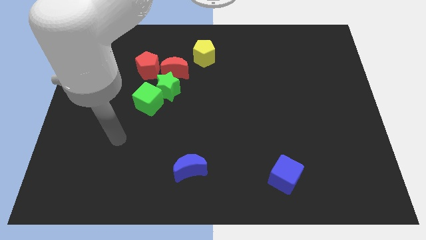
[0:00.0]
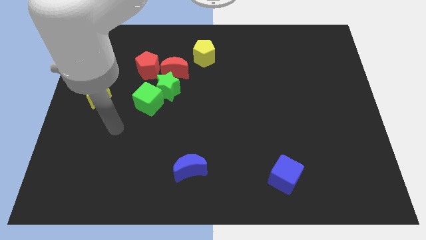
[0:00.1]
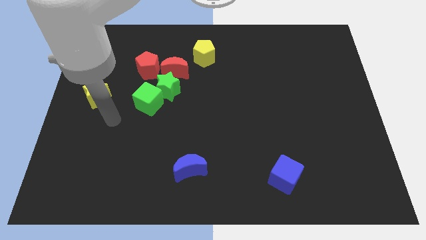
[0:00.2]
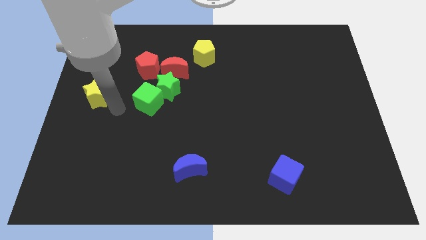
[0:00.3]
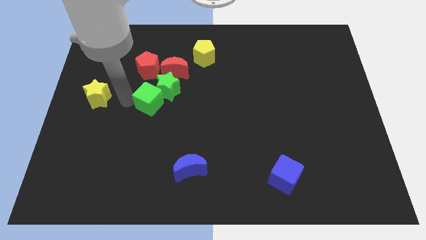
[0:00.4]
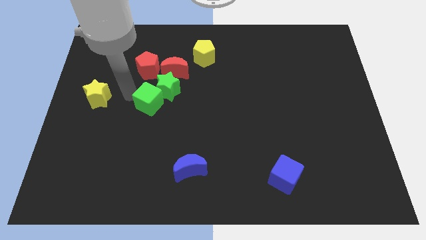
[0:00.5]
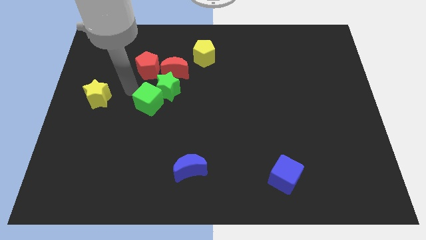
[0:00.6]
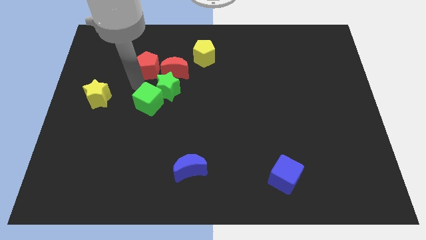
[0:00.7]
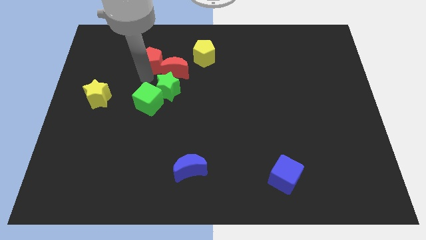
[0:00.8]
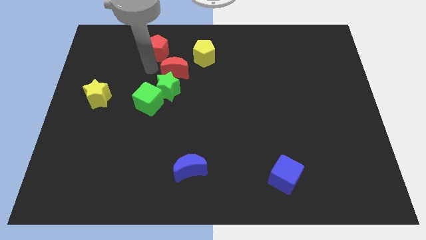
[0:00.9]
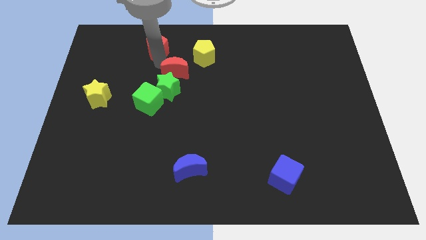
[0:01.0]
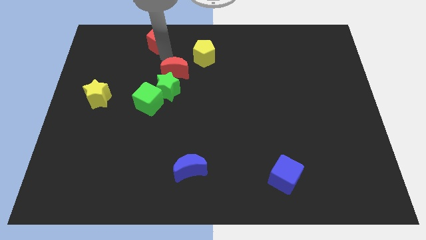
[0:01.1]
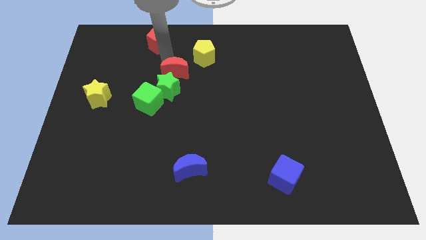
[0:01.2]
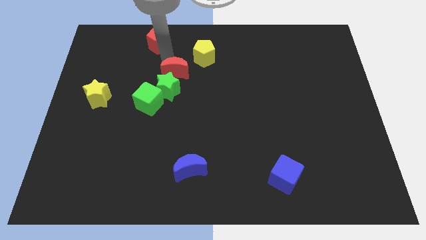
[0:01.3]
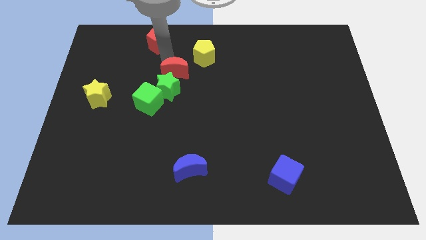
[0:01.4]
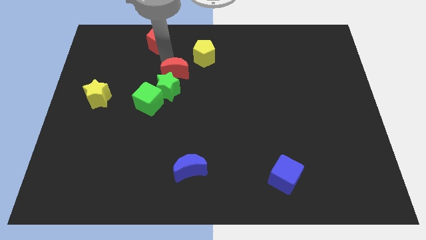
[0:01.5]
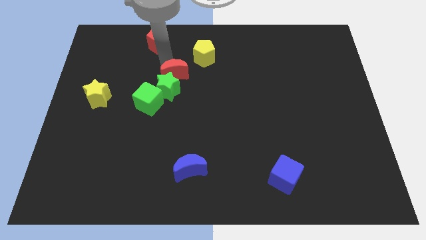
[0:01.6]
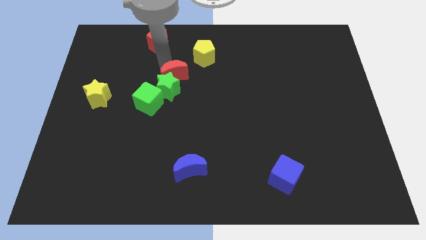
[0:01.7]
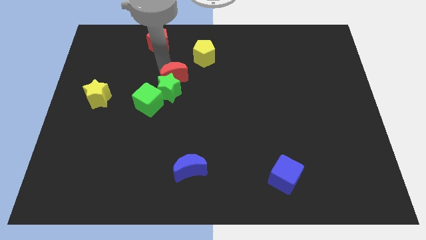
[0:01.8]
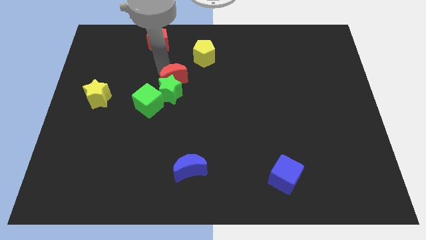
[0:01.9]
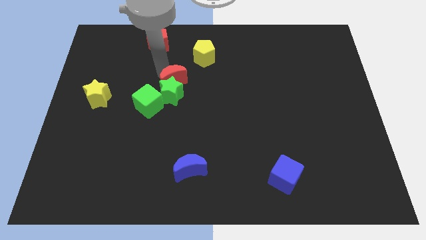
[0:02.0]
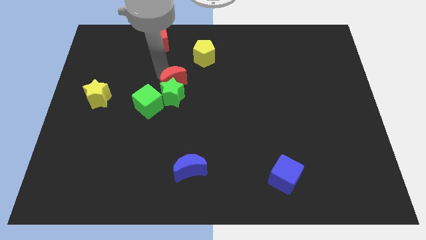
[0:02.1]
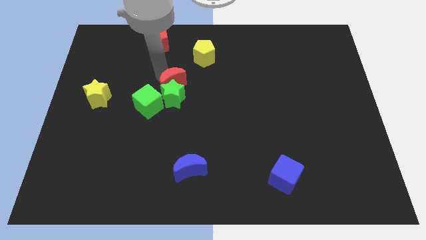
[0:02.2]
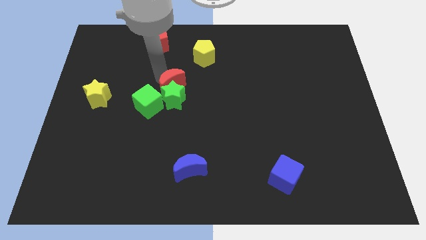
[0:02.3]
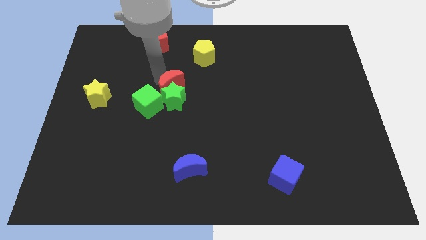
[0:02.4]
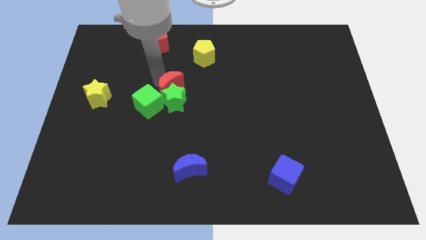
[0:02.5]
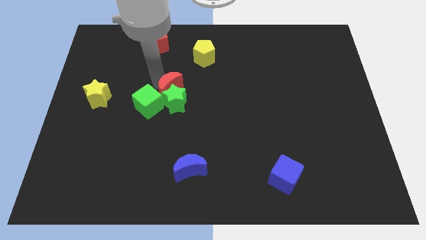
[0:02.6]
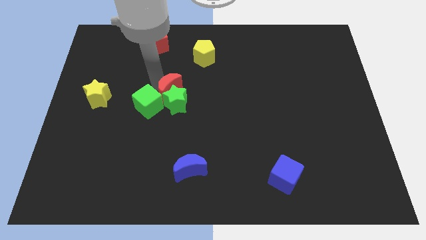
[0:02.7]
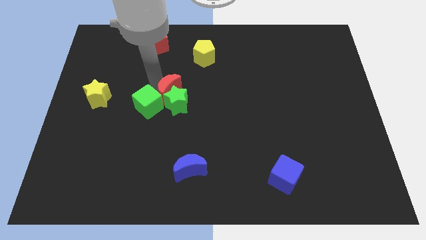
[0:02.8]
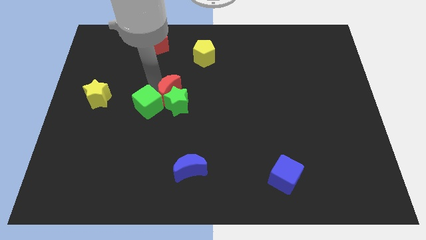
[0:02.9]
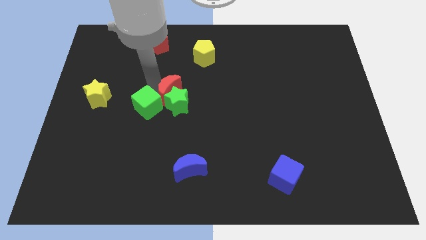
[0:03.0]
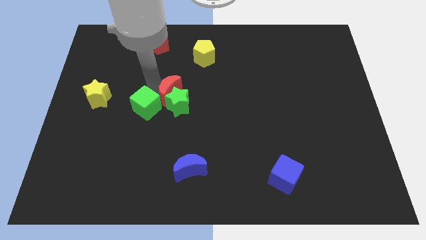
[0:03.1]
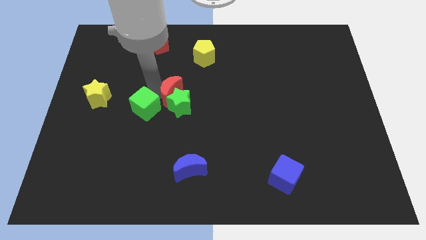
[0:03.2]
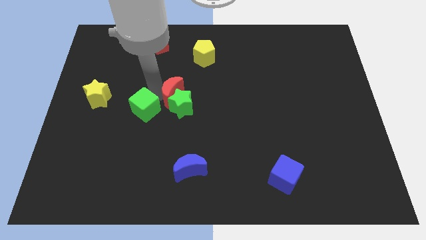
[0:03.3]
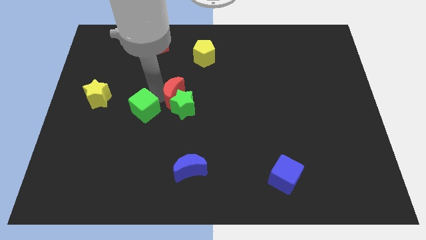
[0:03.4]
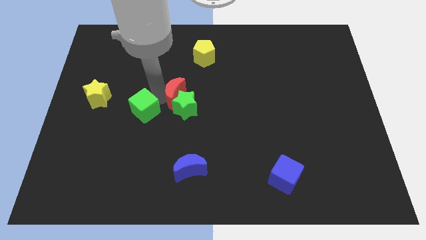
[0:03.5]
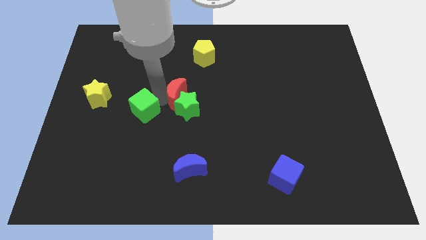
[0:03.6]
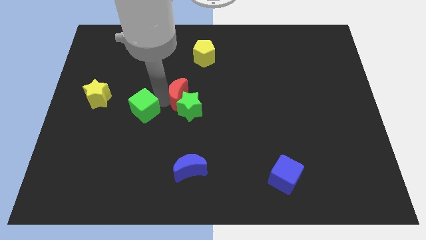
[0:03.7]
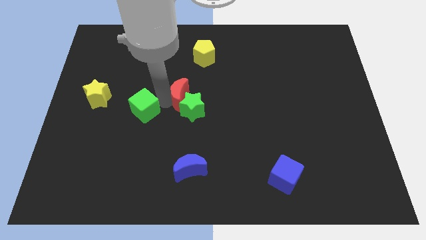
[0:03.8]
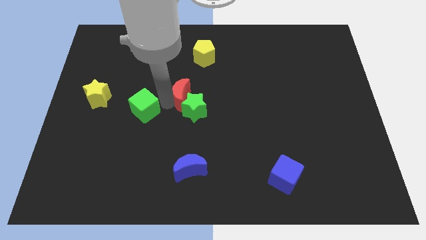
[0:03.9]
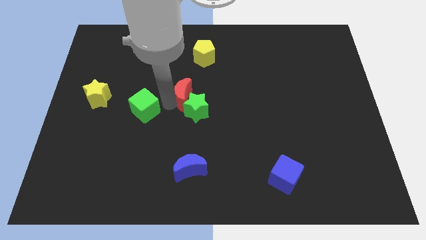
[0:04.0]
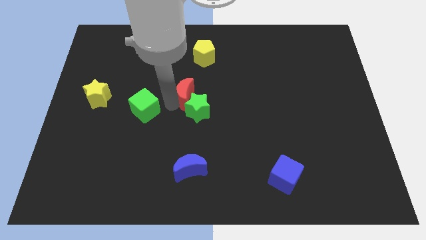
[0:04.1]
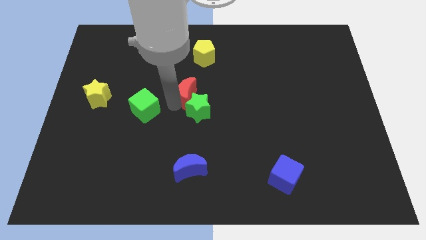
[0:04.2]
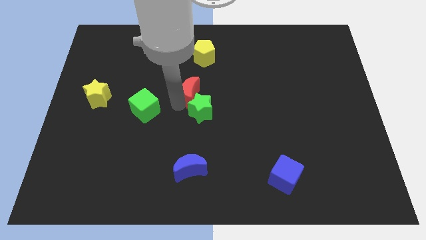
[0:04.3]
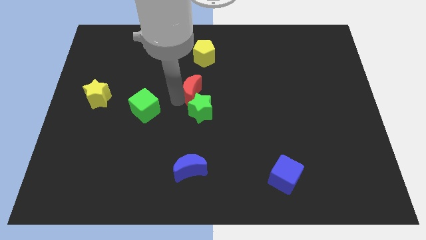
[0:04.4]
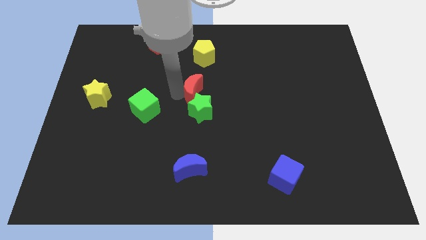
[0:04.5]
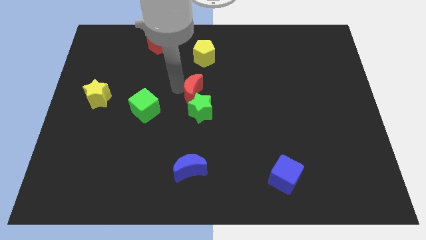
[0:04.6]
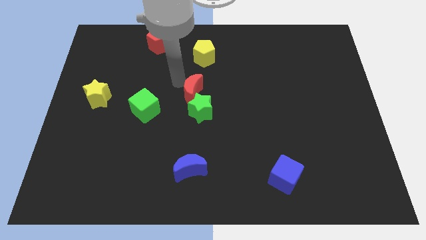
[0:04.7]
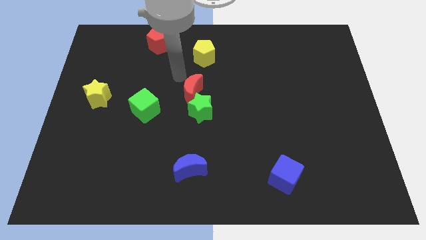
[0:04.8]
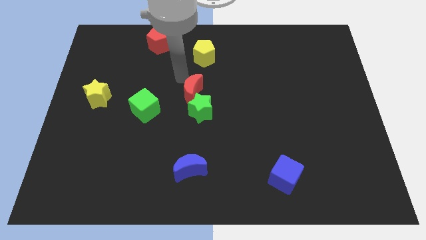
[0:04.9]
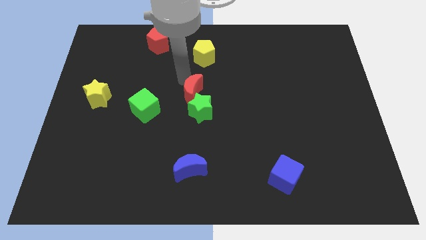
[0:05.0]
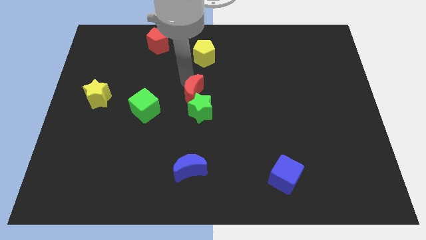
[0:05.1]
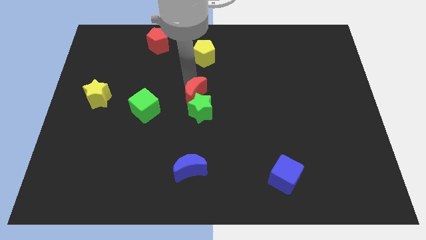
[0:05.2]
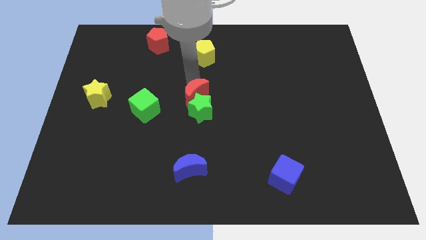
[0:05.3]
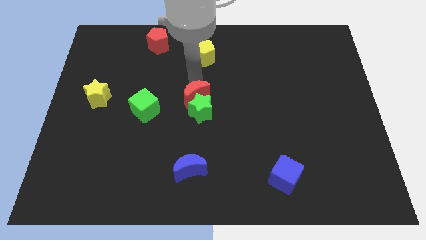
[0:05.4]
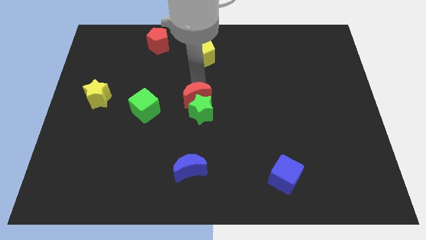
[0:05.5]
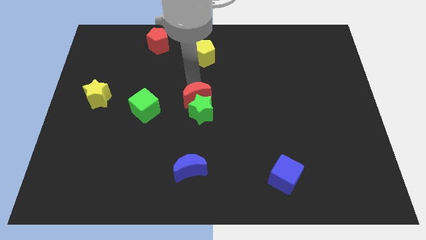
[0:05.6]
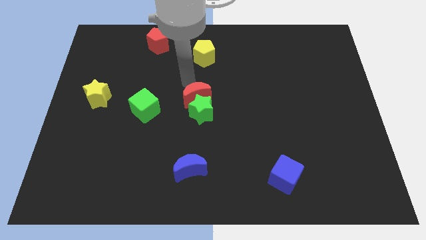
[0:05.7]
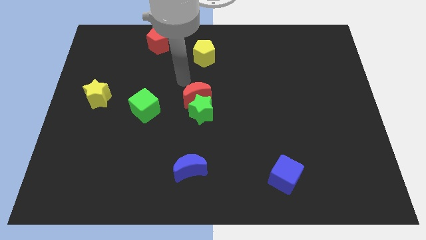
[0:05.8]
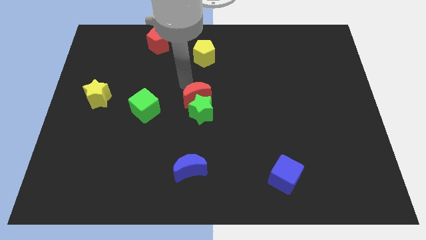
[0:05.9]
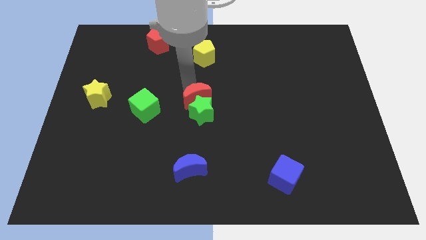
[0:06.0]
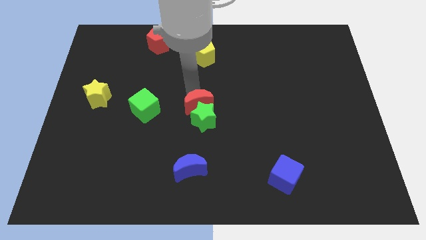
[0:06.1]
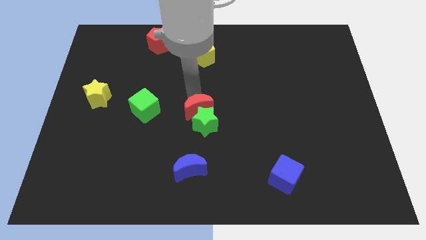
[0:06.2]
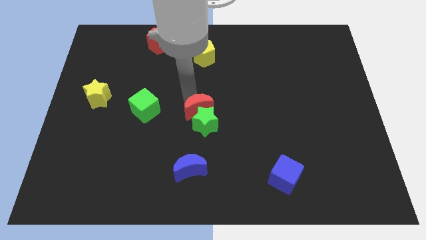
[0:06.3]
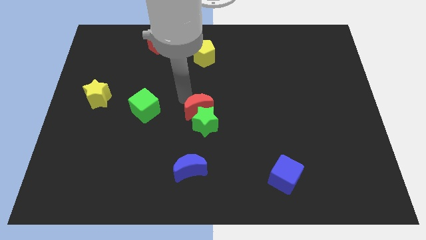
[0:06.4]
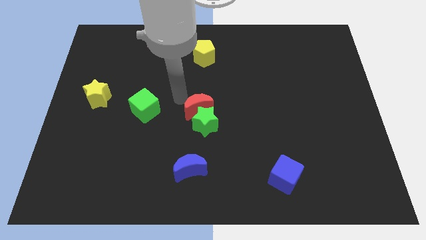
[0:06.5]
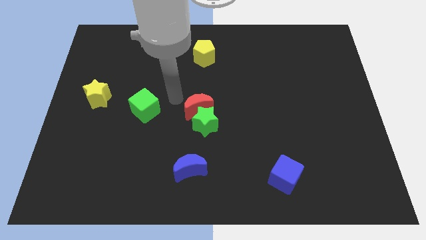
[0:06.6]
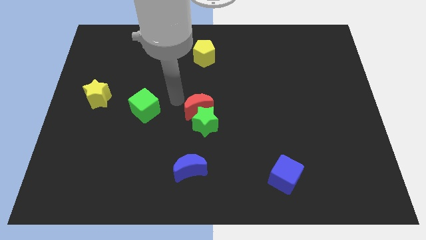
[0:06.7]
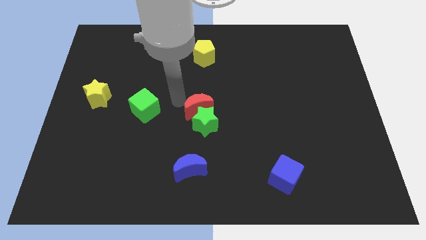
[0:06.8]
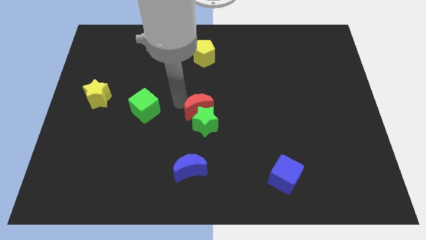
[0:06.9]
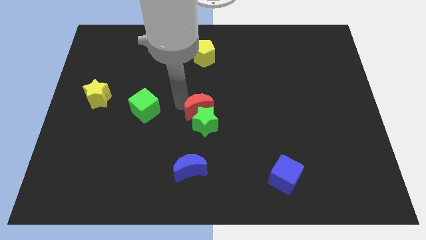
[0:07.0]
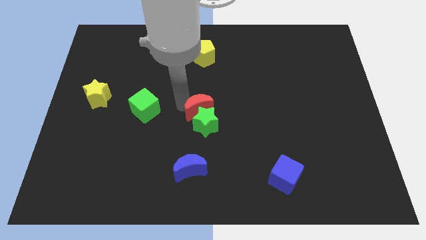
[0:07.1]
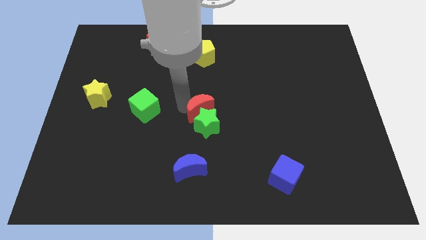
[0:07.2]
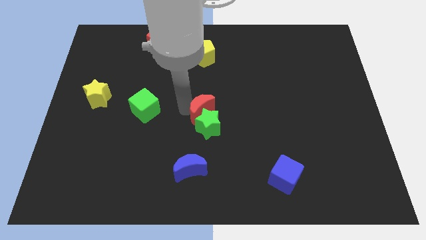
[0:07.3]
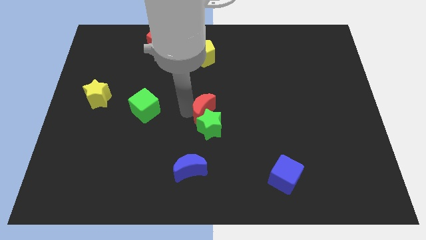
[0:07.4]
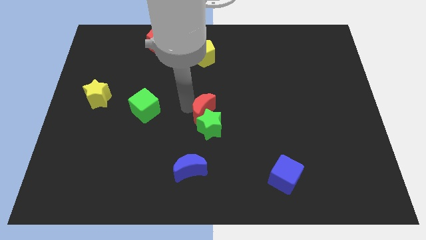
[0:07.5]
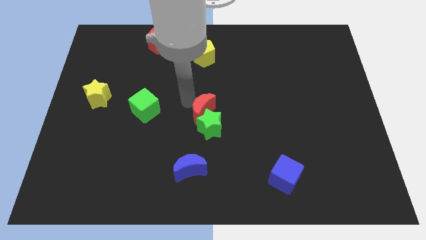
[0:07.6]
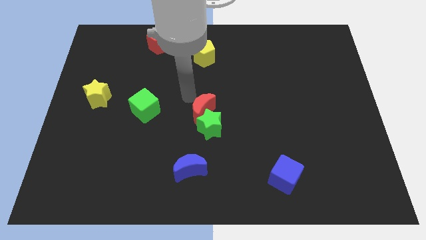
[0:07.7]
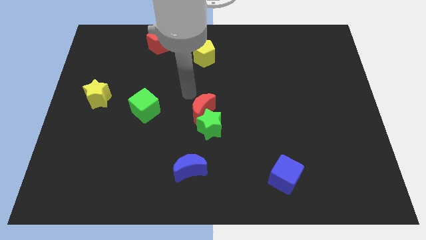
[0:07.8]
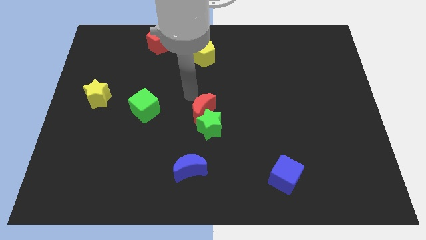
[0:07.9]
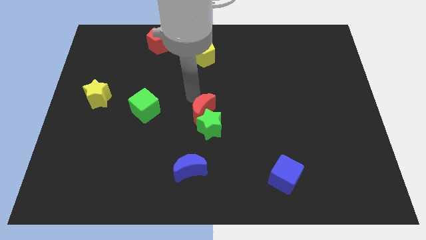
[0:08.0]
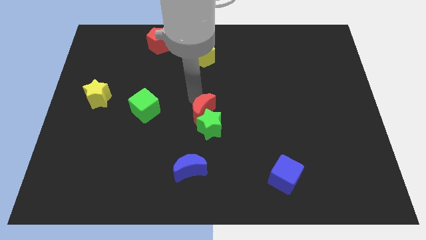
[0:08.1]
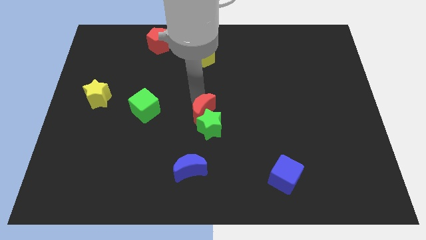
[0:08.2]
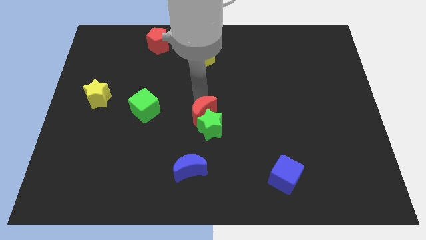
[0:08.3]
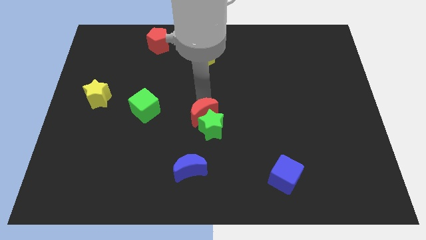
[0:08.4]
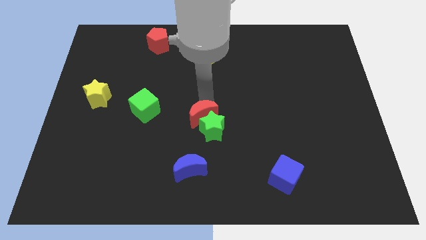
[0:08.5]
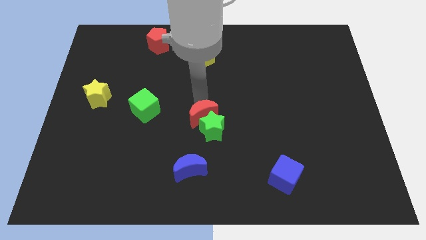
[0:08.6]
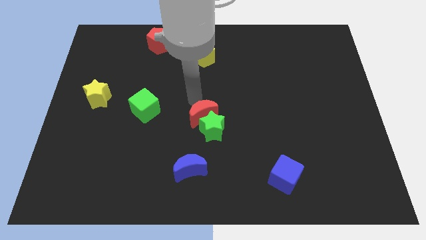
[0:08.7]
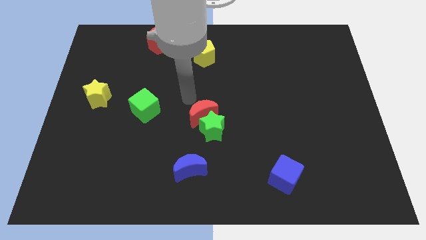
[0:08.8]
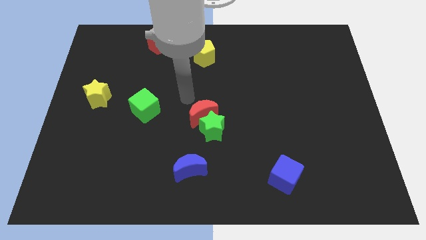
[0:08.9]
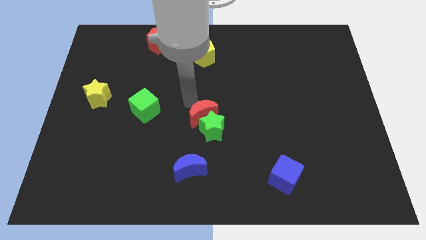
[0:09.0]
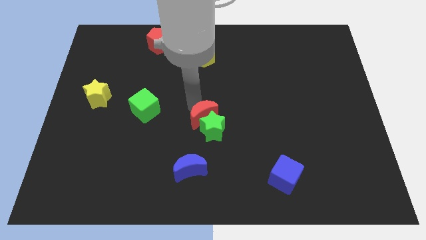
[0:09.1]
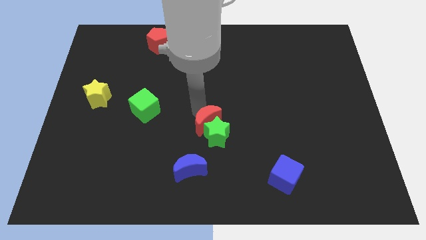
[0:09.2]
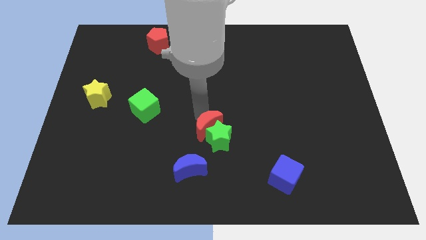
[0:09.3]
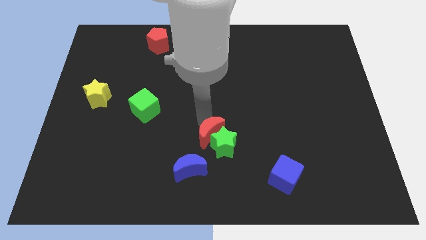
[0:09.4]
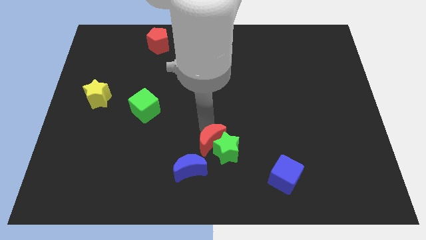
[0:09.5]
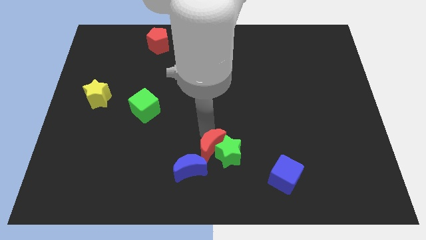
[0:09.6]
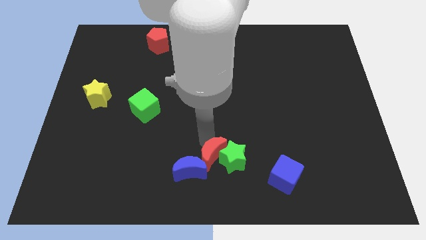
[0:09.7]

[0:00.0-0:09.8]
slide the red moon just right of the blue moon
